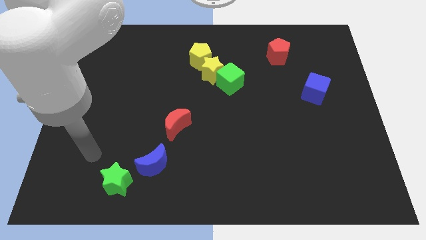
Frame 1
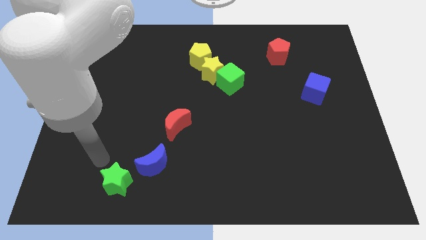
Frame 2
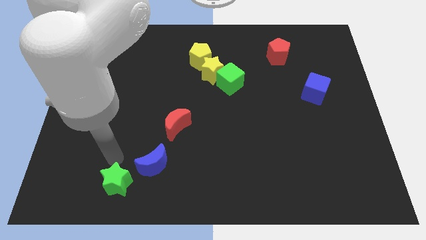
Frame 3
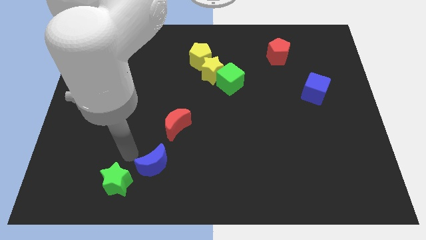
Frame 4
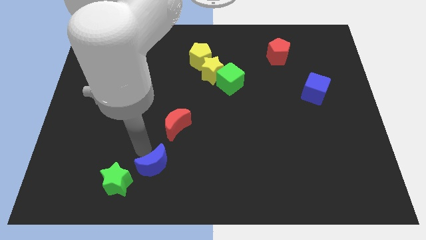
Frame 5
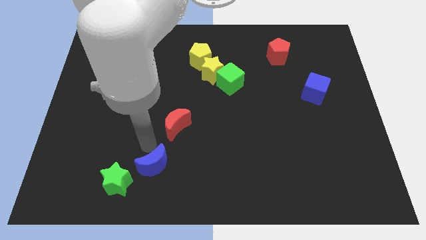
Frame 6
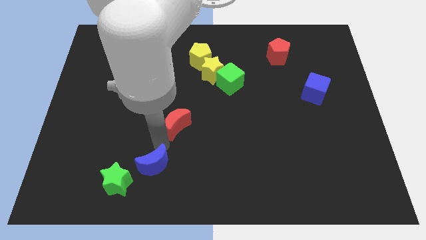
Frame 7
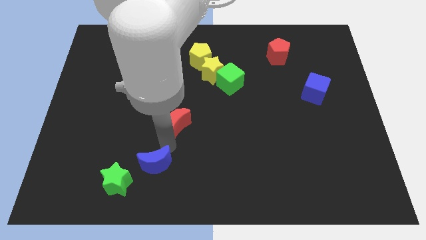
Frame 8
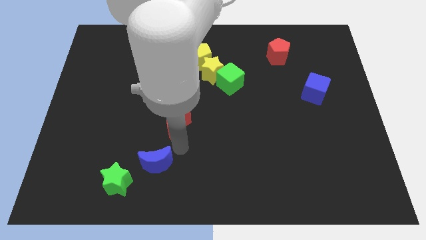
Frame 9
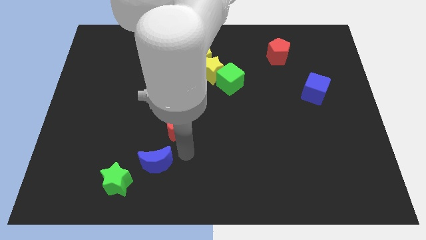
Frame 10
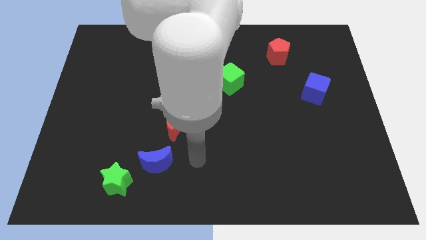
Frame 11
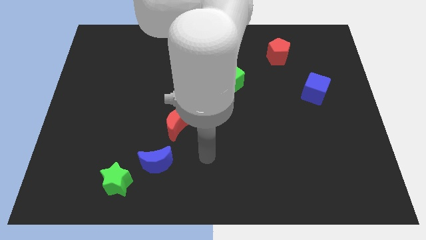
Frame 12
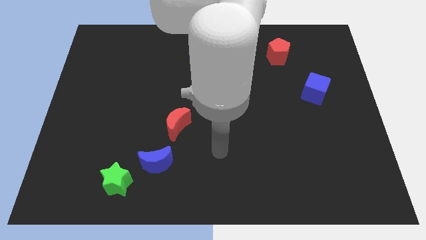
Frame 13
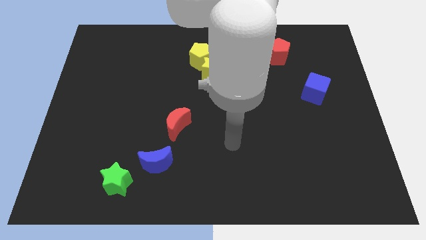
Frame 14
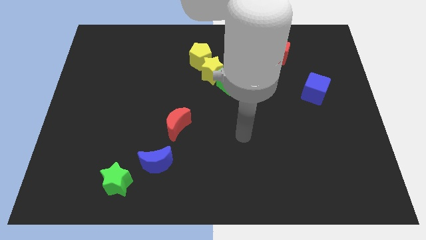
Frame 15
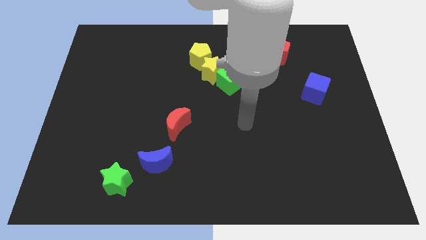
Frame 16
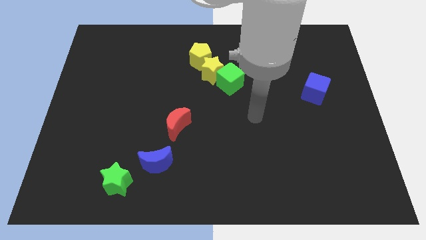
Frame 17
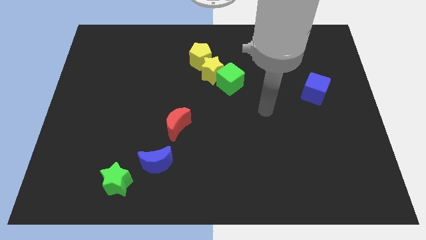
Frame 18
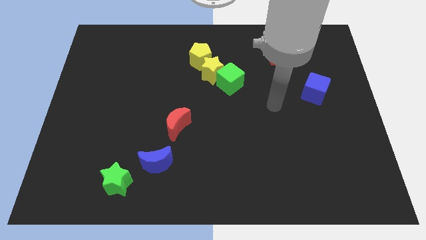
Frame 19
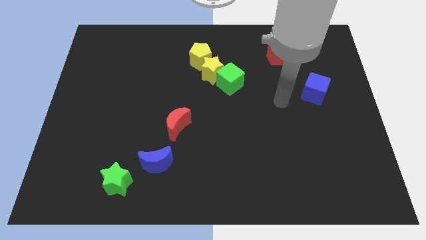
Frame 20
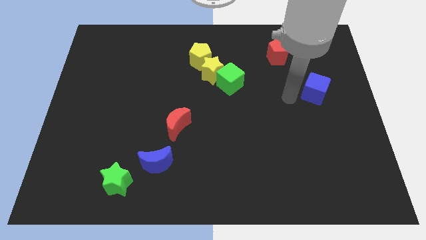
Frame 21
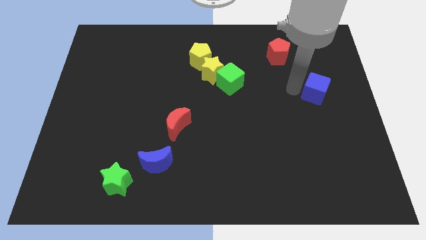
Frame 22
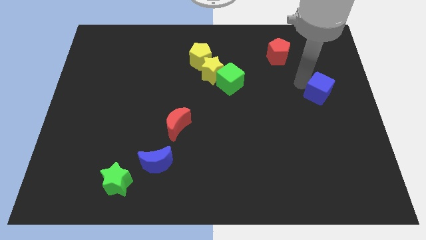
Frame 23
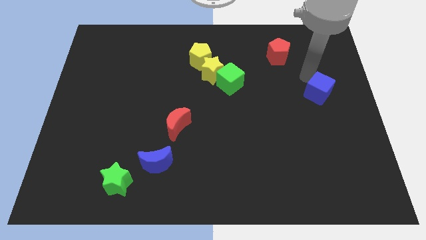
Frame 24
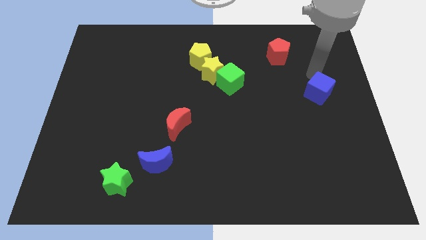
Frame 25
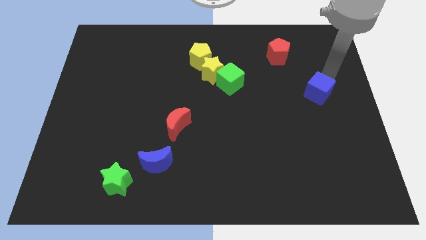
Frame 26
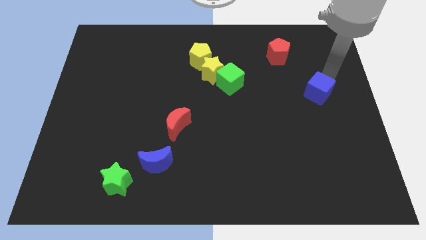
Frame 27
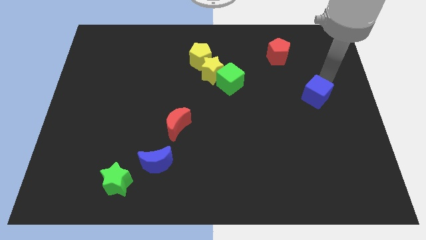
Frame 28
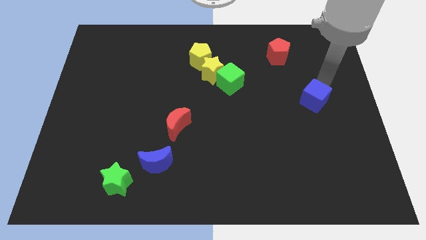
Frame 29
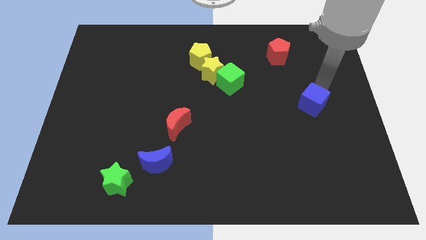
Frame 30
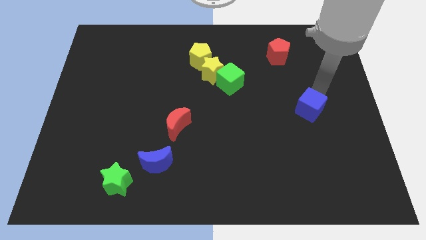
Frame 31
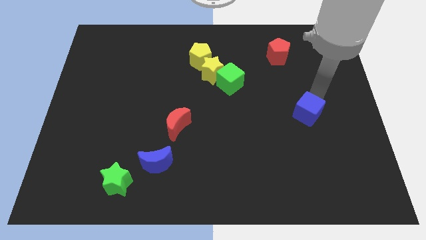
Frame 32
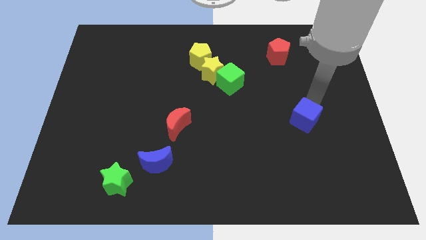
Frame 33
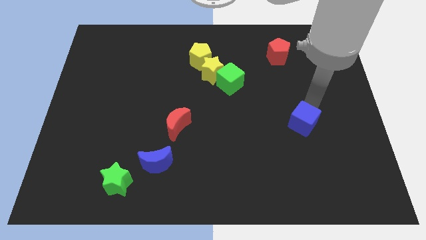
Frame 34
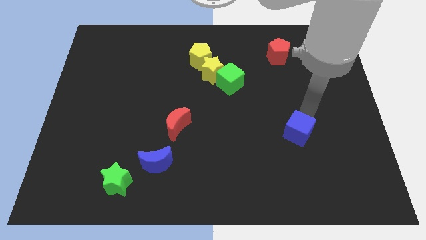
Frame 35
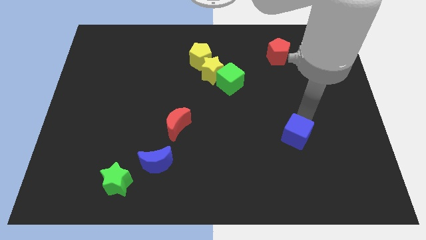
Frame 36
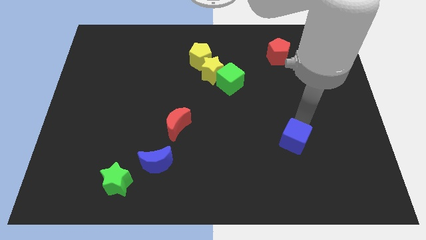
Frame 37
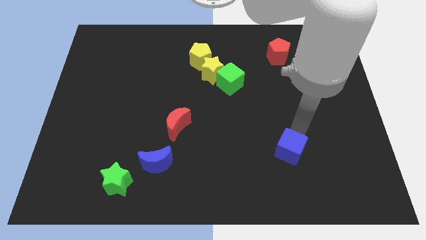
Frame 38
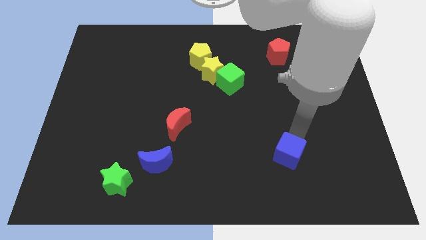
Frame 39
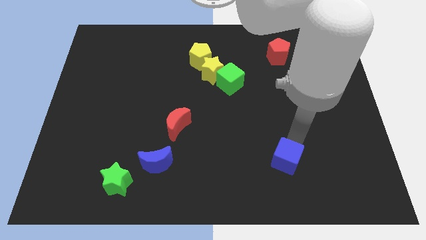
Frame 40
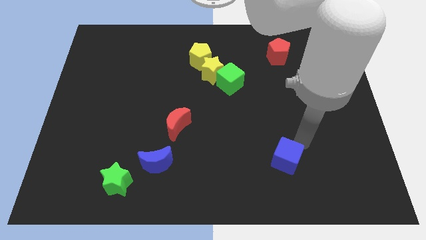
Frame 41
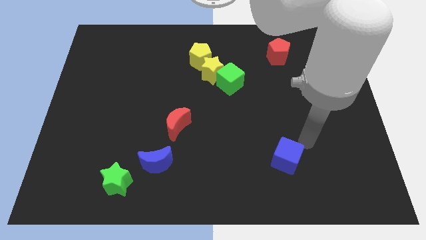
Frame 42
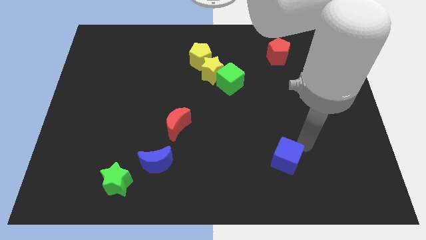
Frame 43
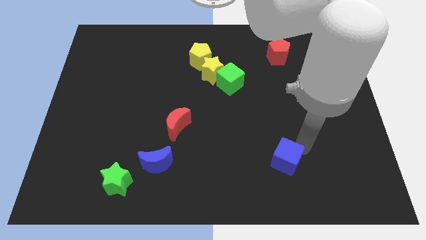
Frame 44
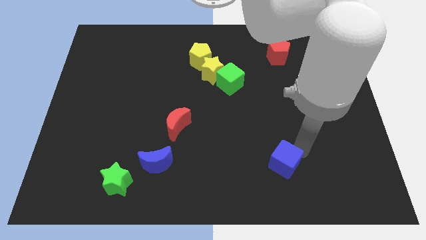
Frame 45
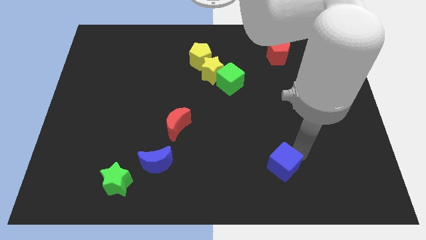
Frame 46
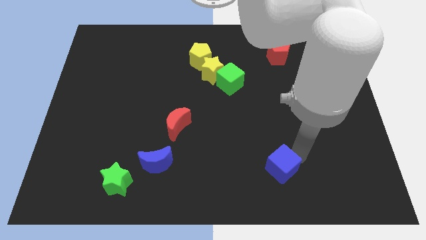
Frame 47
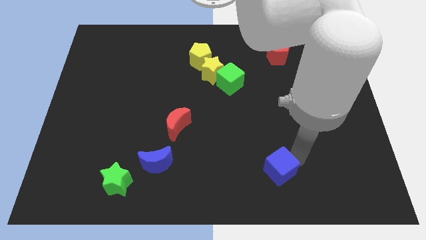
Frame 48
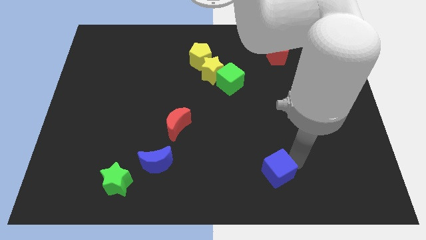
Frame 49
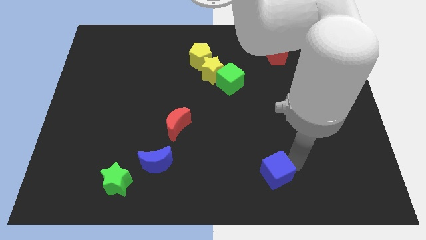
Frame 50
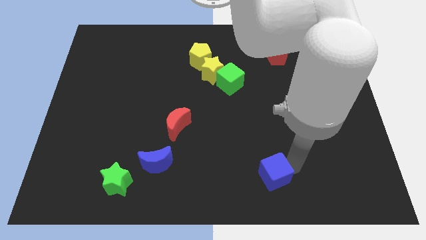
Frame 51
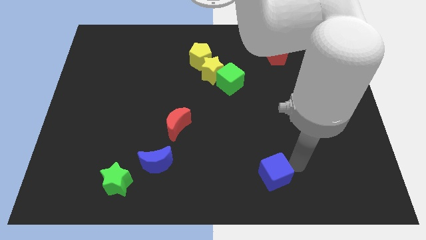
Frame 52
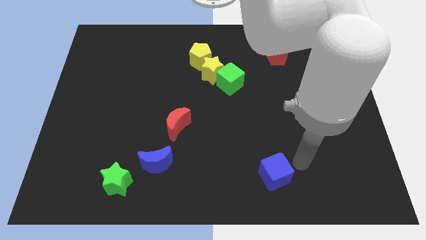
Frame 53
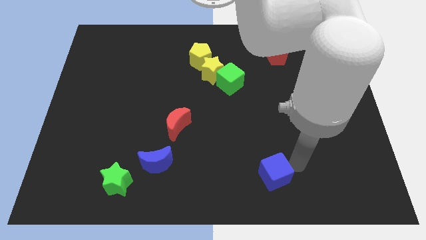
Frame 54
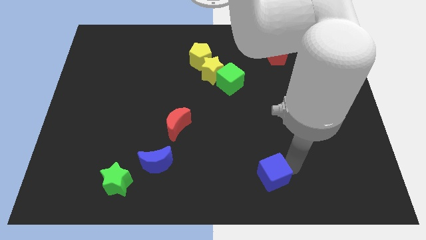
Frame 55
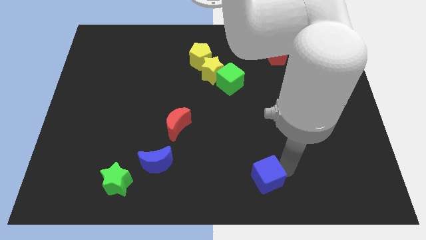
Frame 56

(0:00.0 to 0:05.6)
push the blue cube to the bottom

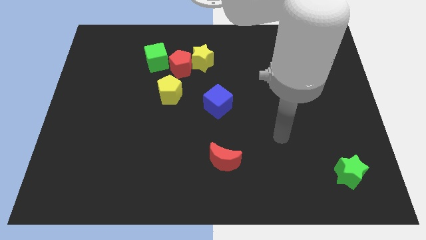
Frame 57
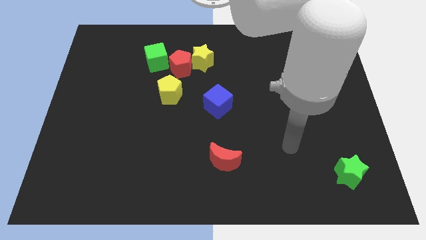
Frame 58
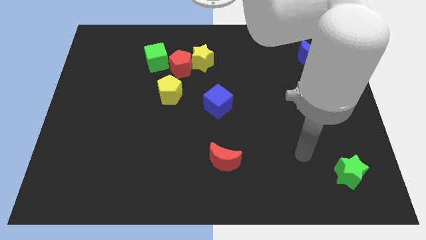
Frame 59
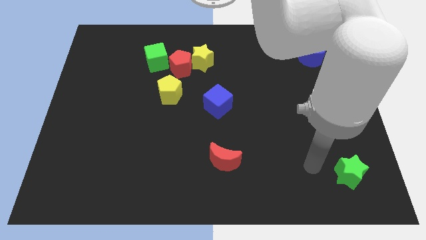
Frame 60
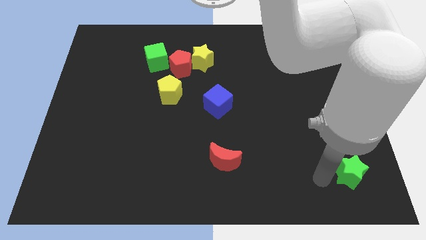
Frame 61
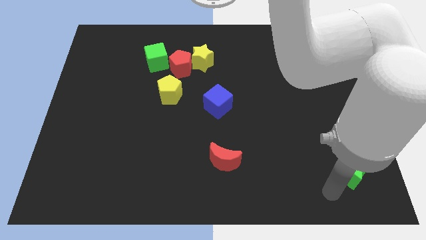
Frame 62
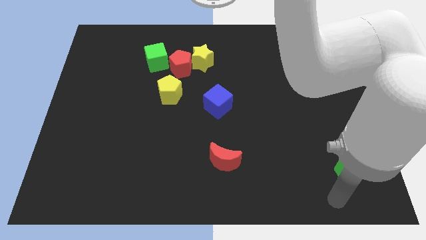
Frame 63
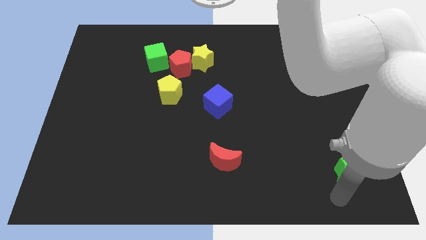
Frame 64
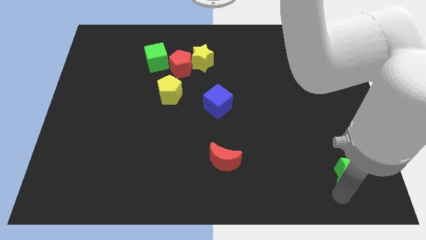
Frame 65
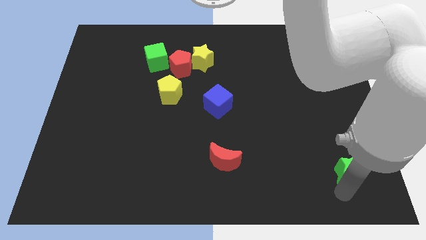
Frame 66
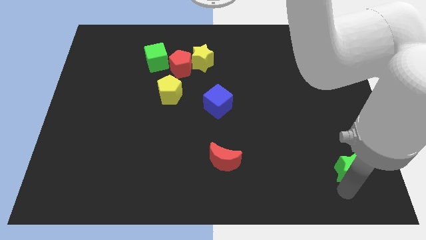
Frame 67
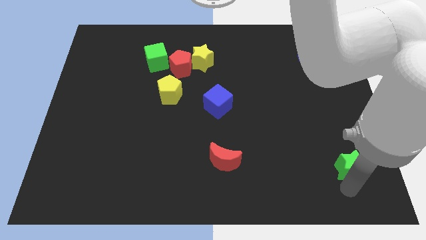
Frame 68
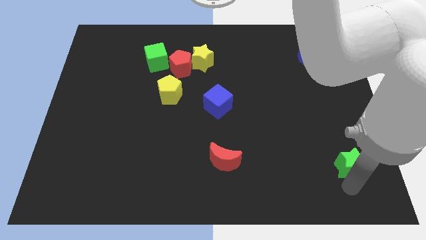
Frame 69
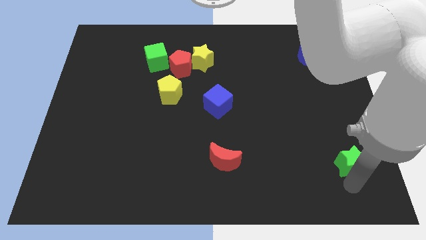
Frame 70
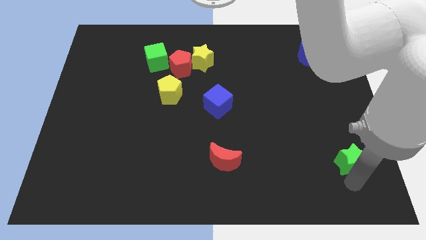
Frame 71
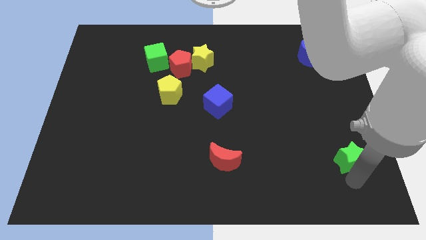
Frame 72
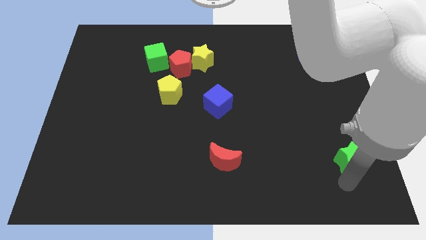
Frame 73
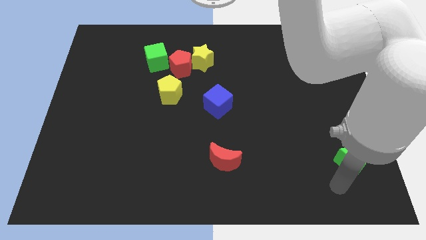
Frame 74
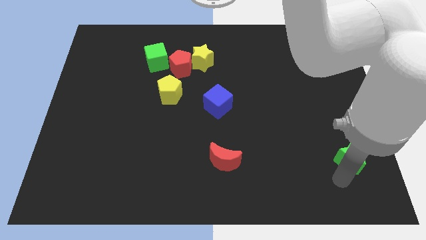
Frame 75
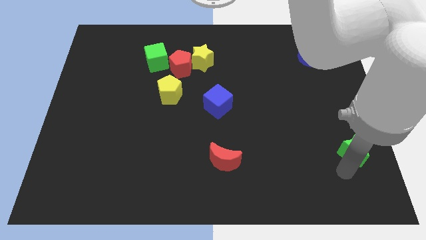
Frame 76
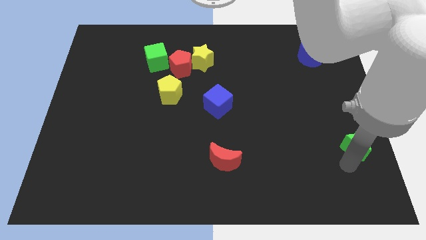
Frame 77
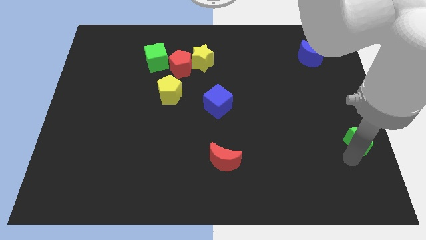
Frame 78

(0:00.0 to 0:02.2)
slide the green star to the right side of the board
